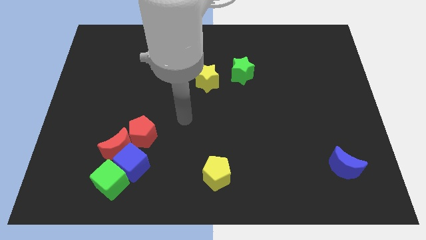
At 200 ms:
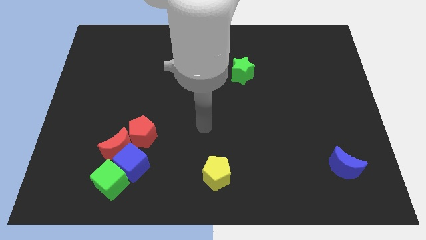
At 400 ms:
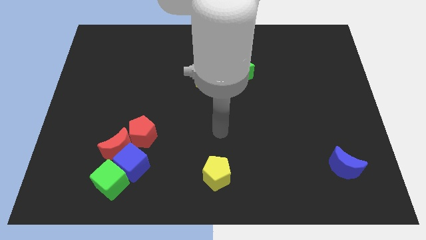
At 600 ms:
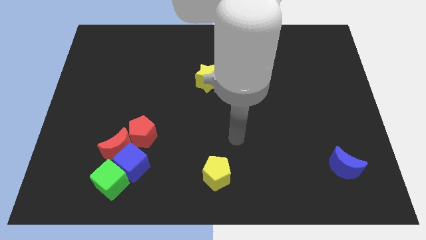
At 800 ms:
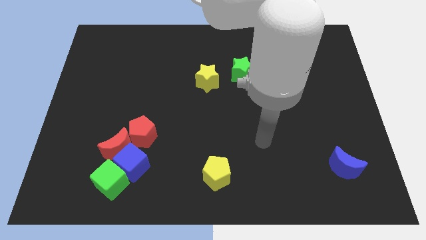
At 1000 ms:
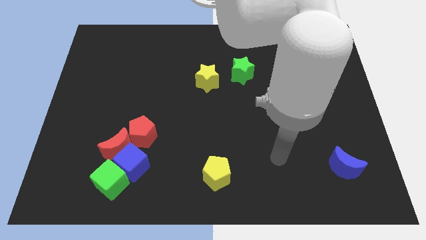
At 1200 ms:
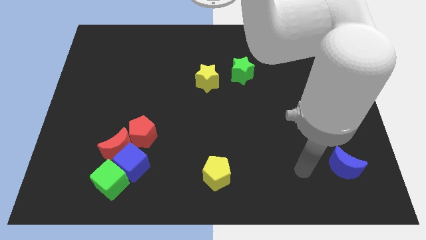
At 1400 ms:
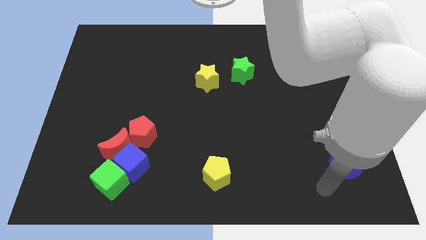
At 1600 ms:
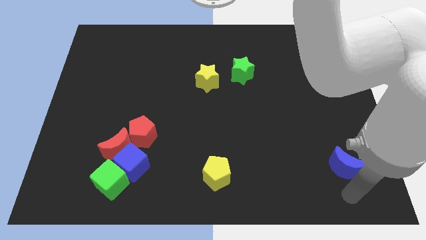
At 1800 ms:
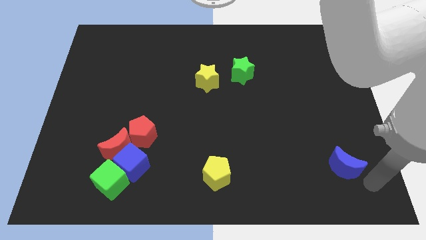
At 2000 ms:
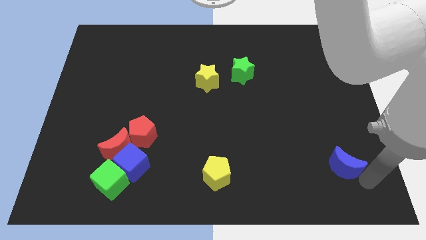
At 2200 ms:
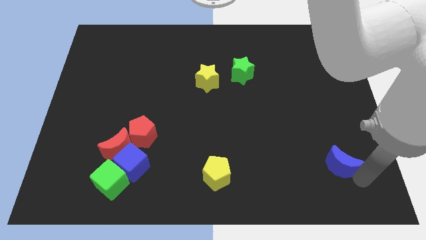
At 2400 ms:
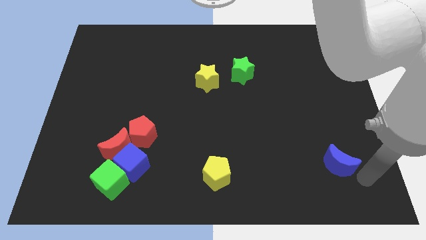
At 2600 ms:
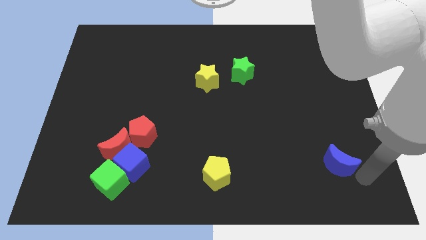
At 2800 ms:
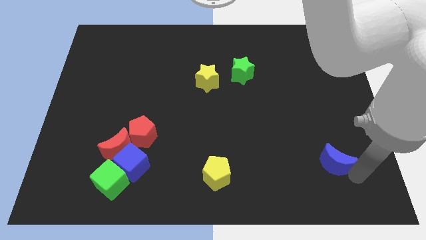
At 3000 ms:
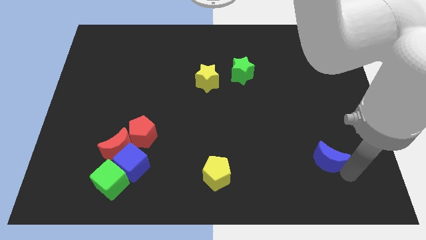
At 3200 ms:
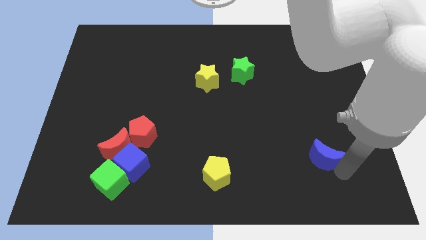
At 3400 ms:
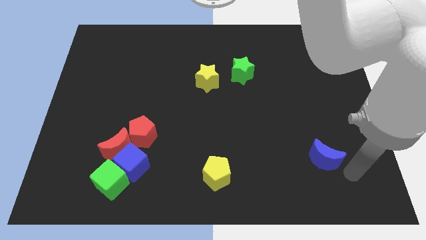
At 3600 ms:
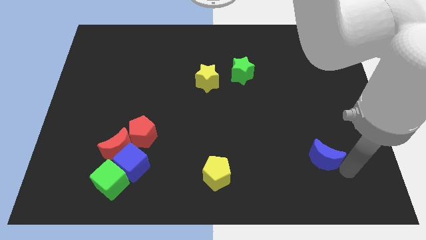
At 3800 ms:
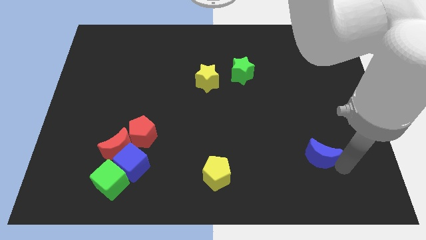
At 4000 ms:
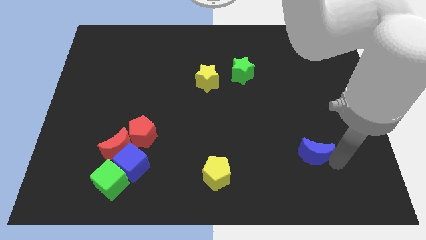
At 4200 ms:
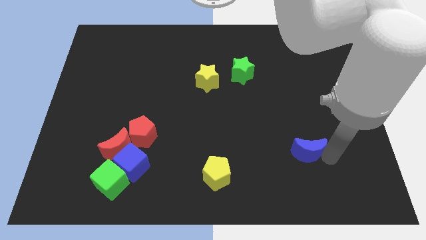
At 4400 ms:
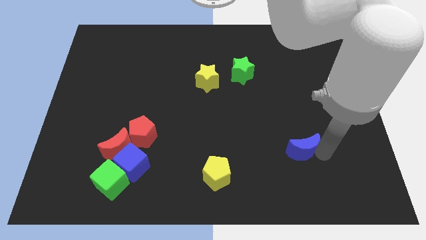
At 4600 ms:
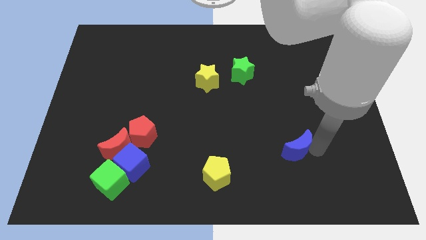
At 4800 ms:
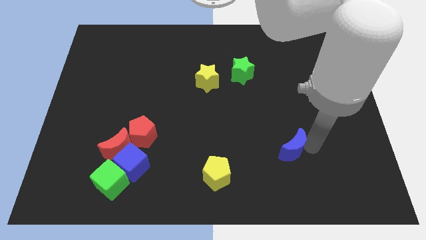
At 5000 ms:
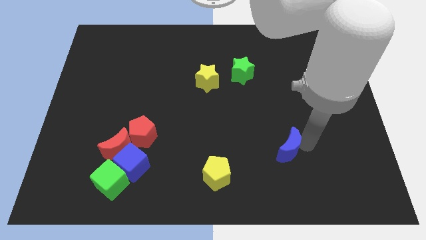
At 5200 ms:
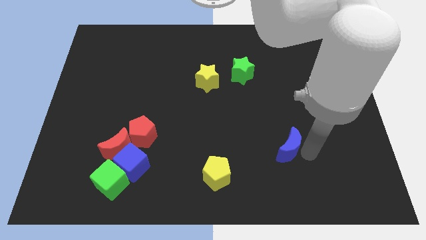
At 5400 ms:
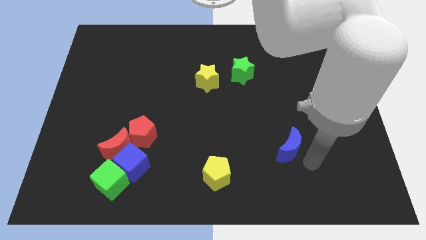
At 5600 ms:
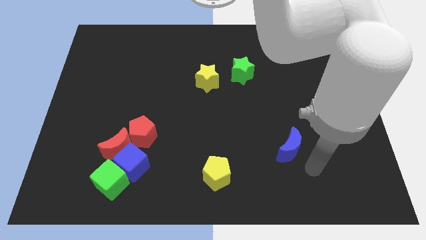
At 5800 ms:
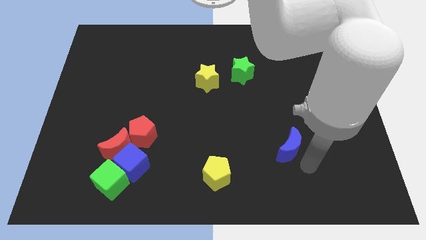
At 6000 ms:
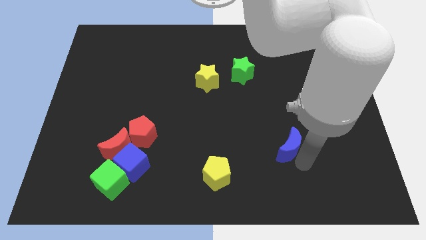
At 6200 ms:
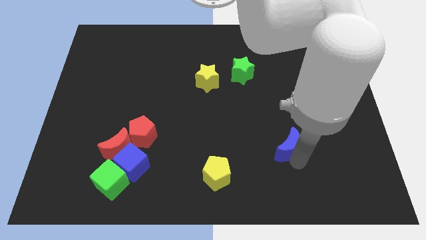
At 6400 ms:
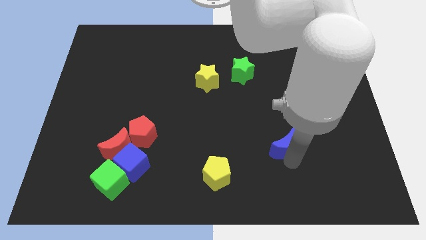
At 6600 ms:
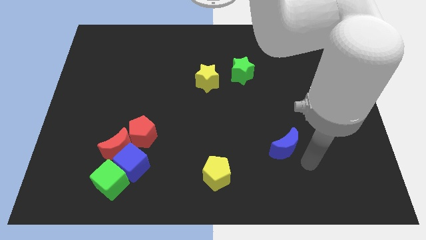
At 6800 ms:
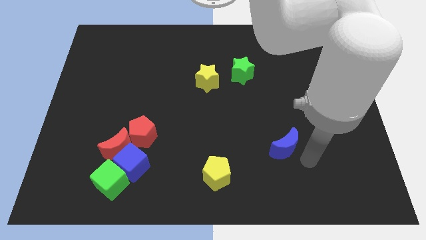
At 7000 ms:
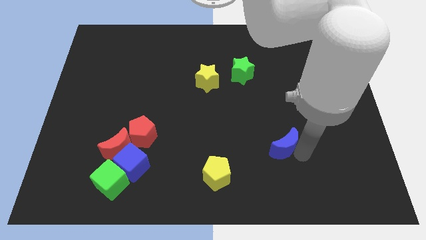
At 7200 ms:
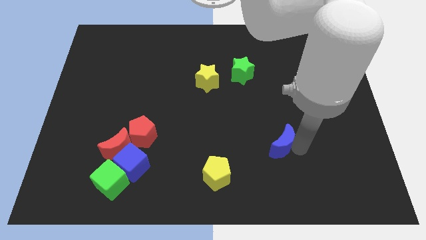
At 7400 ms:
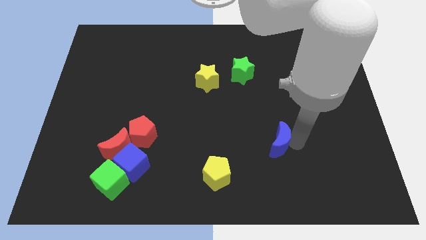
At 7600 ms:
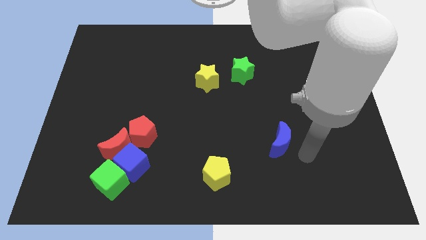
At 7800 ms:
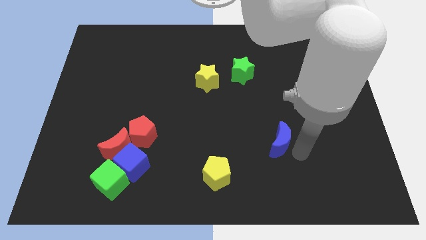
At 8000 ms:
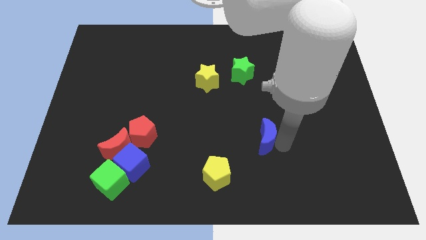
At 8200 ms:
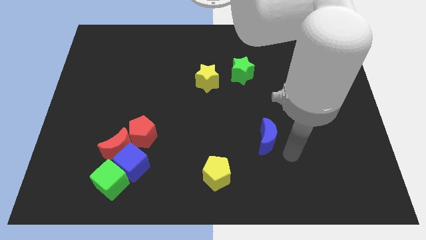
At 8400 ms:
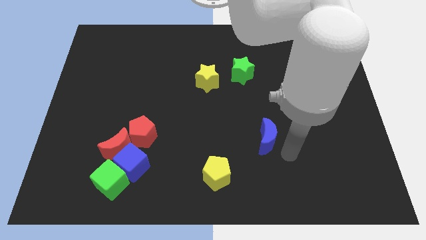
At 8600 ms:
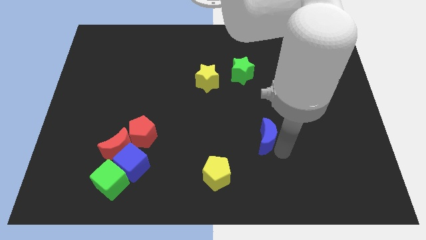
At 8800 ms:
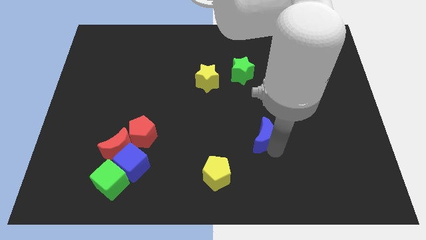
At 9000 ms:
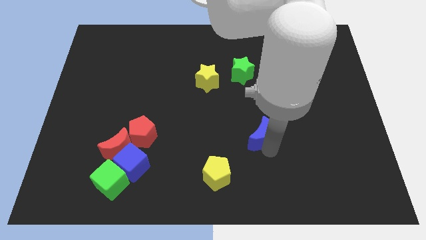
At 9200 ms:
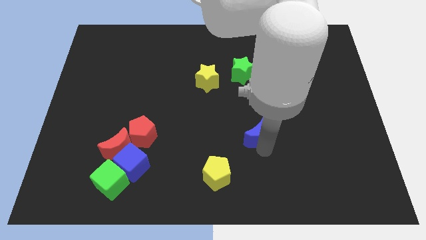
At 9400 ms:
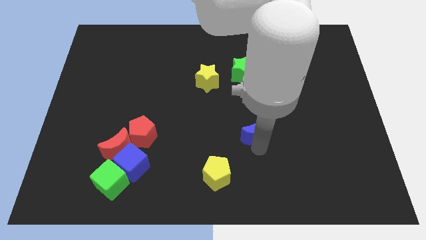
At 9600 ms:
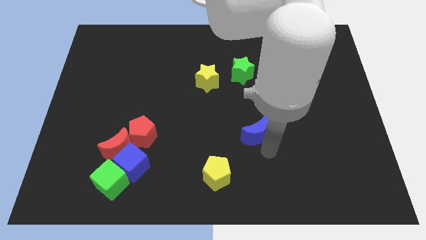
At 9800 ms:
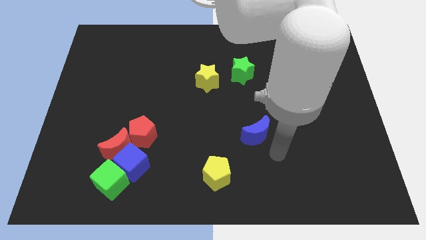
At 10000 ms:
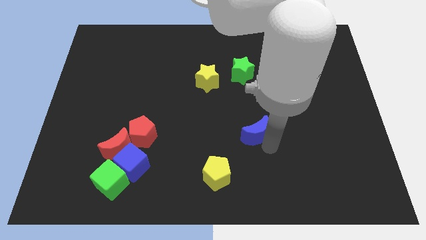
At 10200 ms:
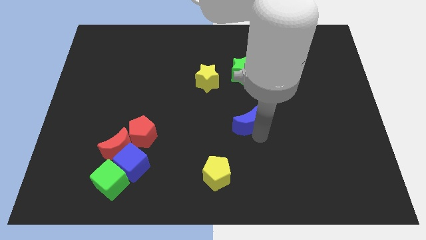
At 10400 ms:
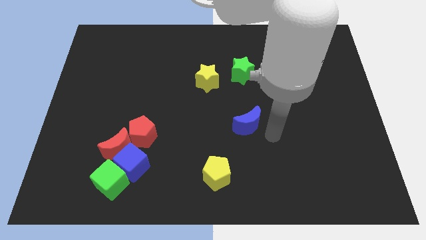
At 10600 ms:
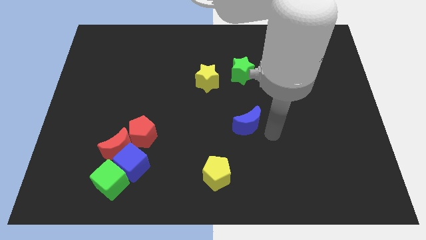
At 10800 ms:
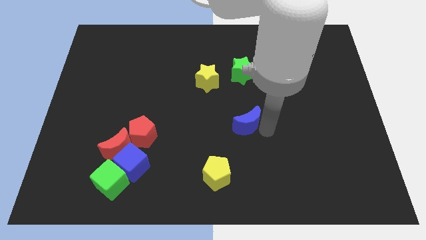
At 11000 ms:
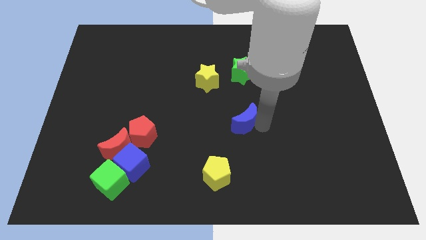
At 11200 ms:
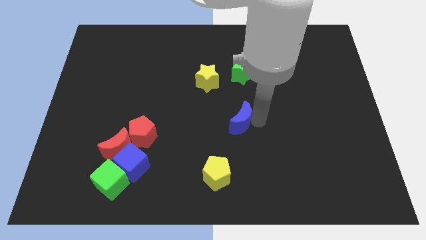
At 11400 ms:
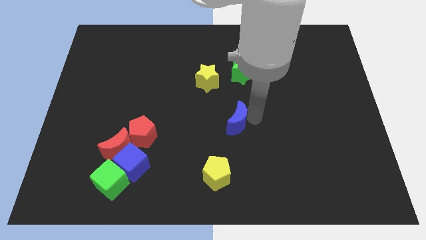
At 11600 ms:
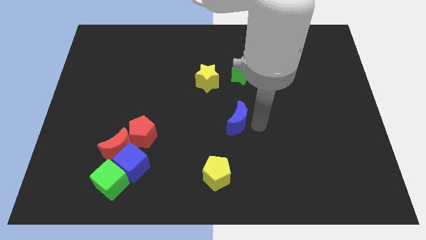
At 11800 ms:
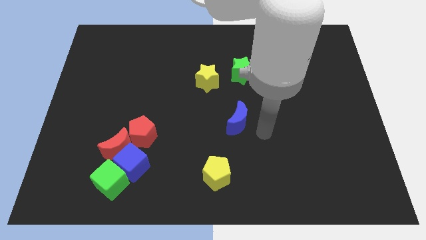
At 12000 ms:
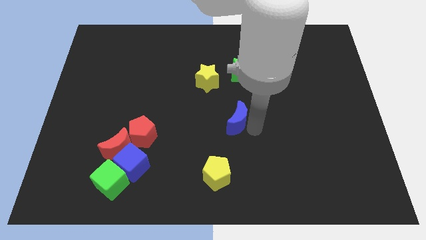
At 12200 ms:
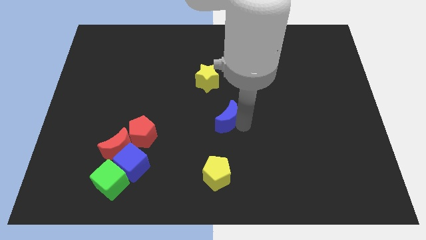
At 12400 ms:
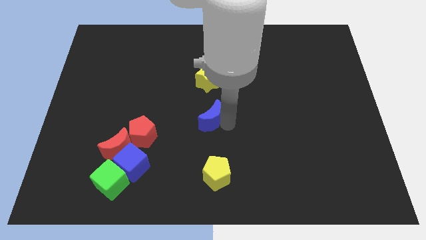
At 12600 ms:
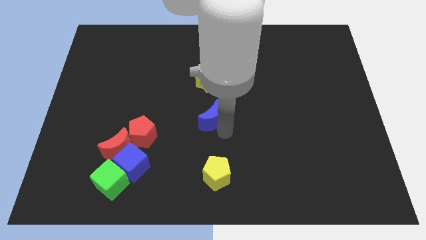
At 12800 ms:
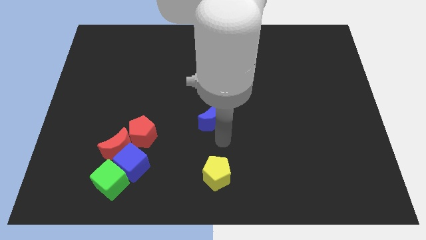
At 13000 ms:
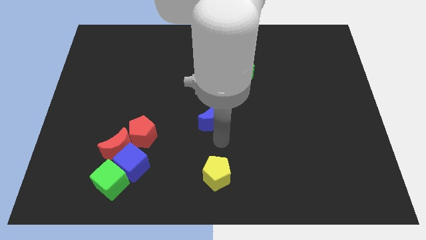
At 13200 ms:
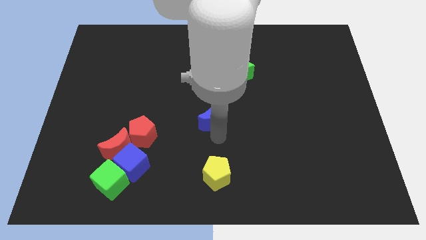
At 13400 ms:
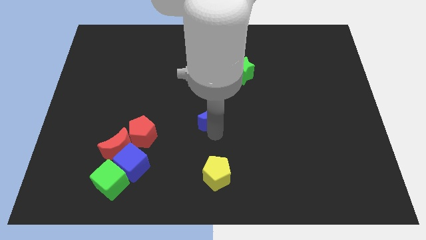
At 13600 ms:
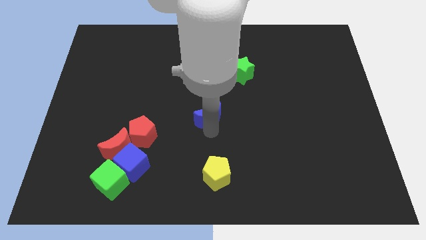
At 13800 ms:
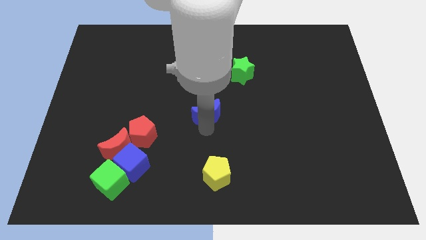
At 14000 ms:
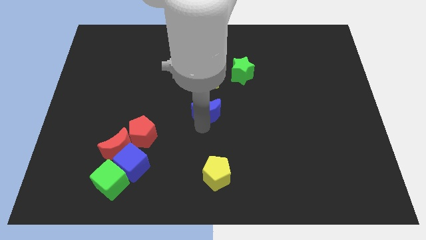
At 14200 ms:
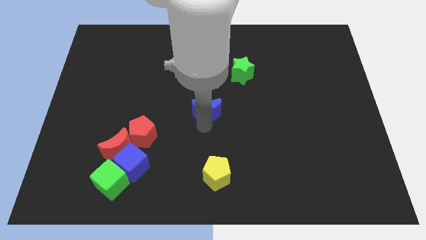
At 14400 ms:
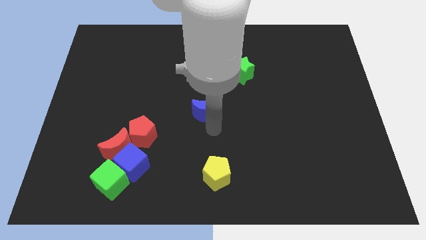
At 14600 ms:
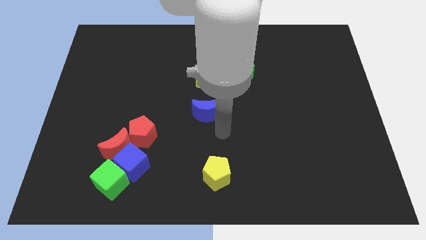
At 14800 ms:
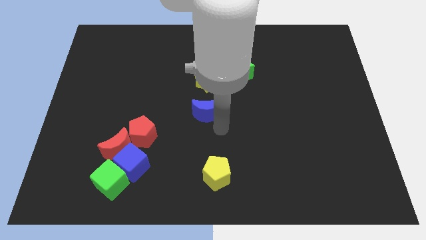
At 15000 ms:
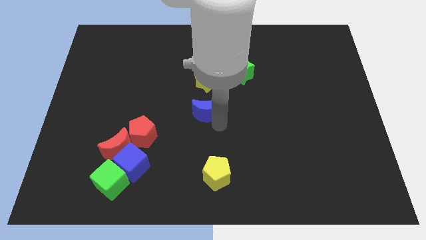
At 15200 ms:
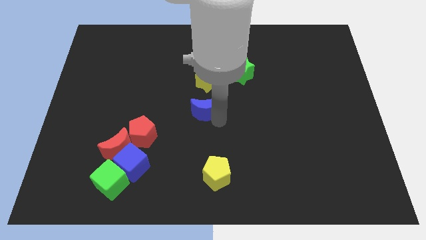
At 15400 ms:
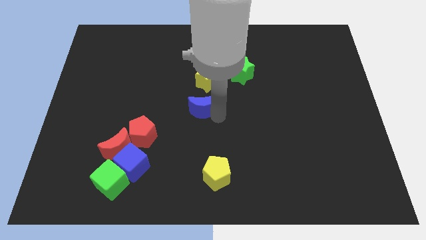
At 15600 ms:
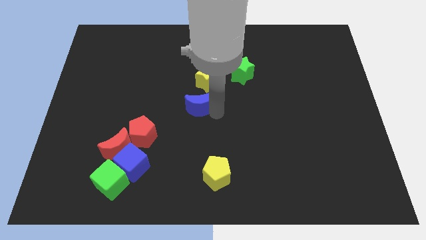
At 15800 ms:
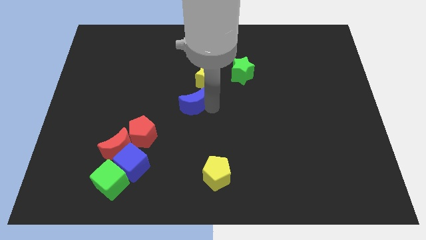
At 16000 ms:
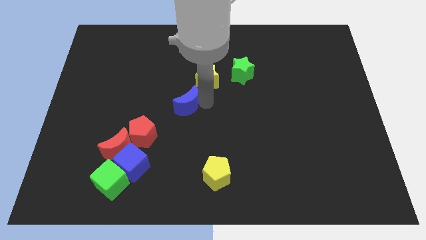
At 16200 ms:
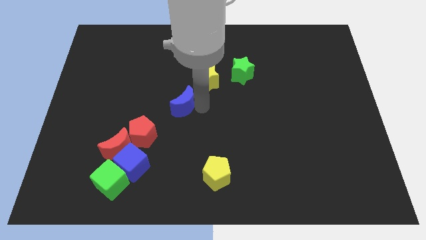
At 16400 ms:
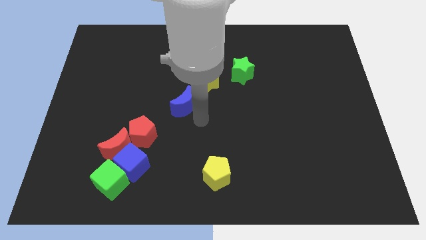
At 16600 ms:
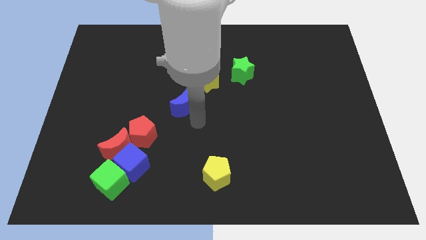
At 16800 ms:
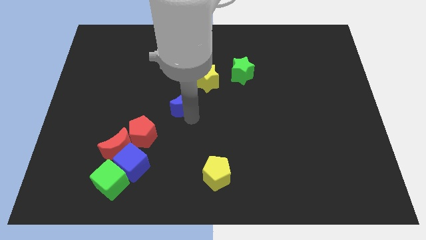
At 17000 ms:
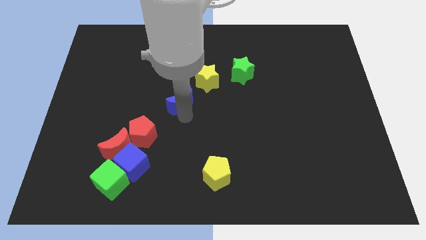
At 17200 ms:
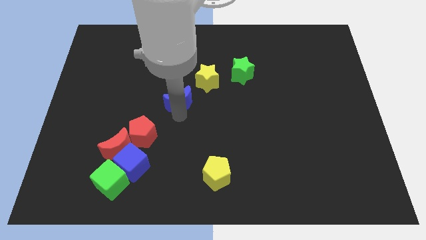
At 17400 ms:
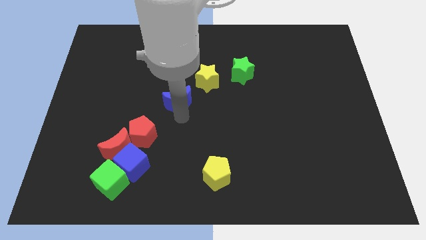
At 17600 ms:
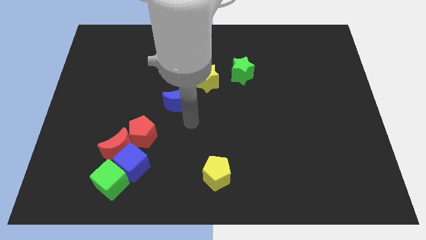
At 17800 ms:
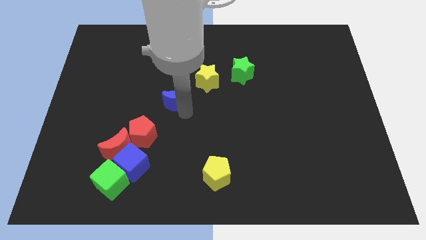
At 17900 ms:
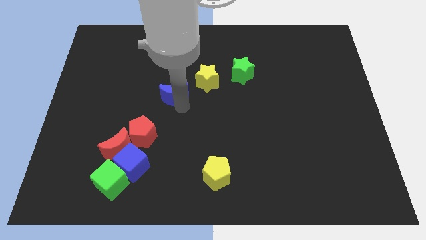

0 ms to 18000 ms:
put the blue moon left of the yellow star
